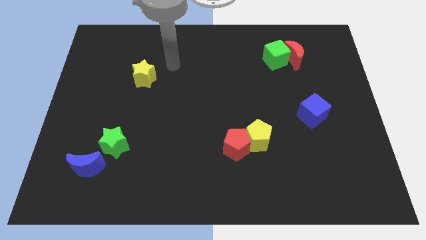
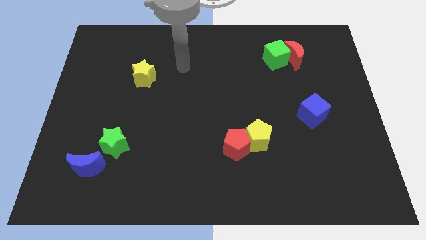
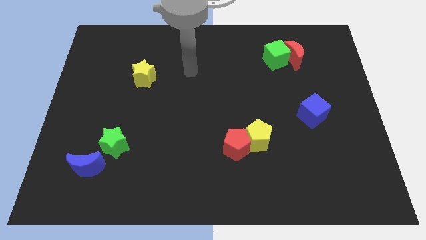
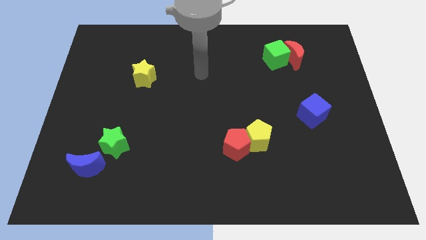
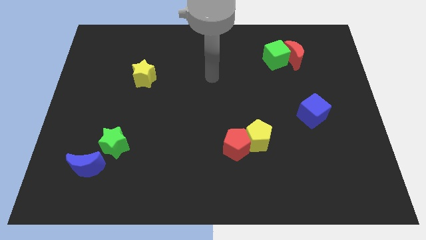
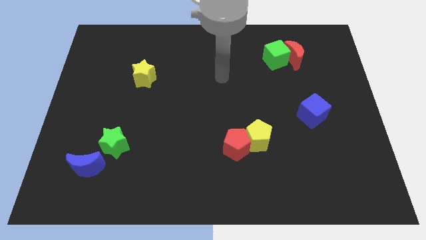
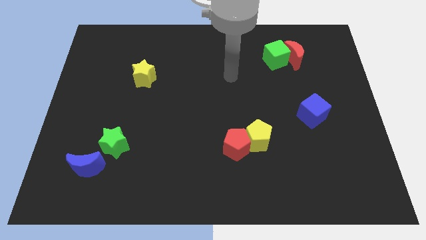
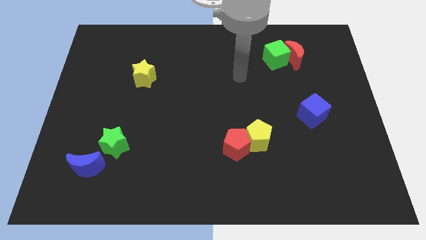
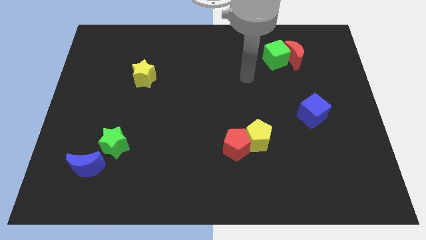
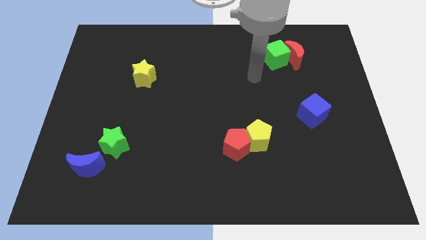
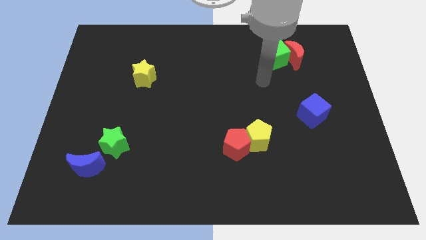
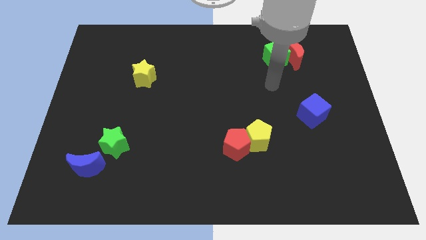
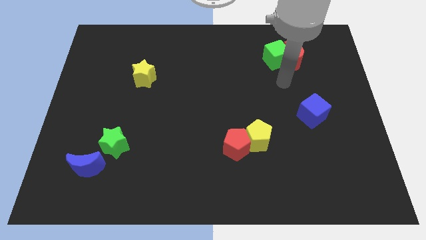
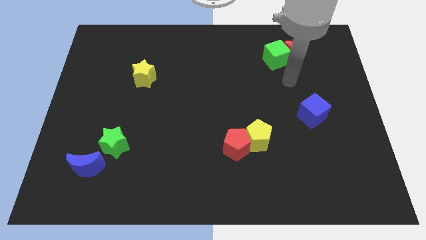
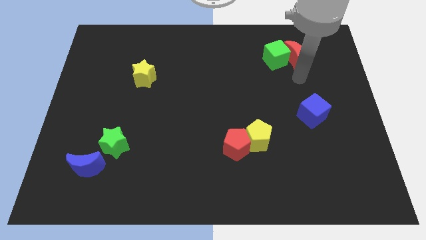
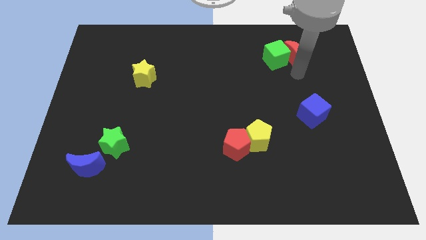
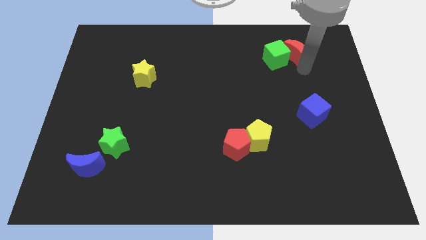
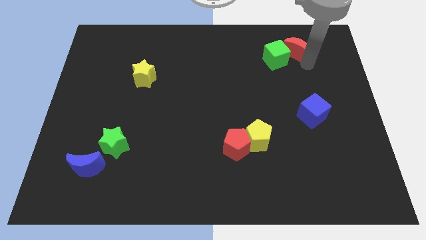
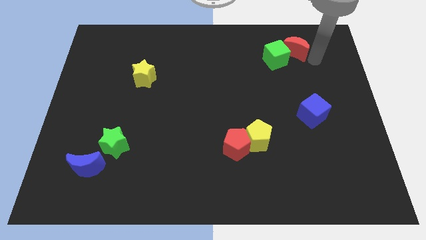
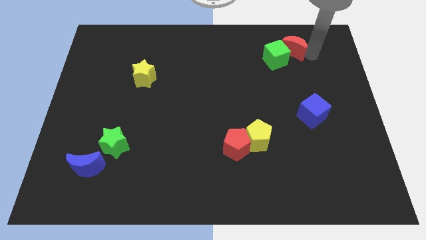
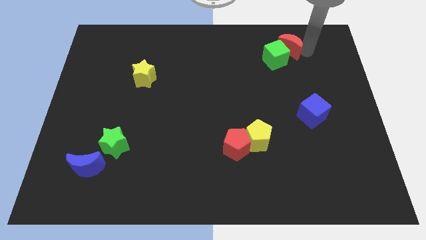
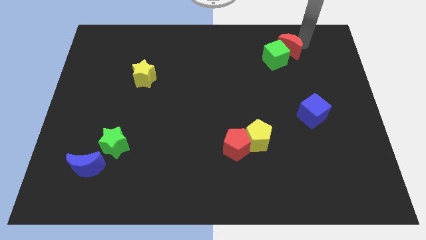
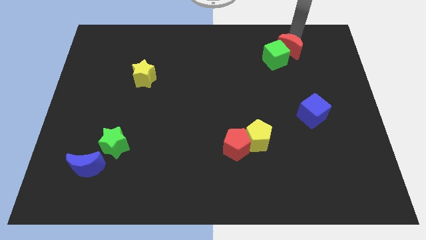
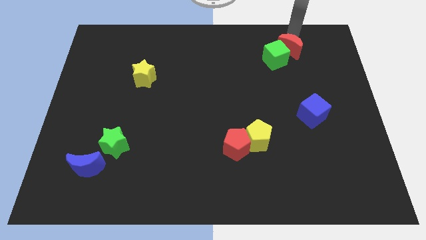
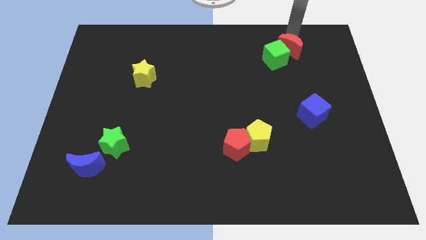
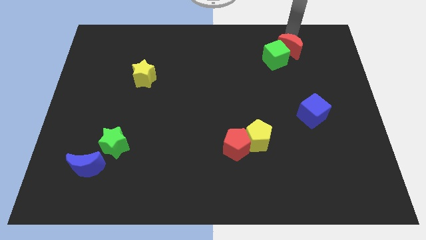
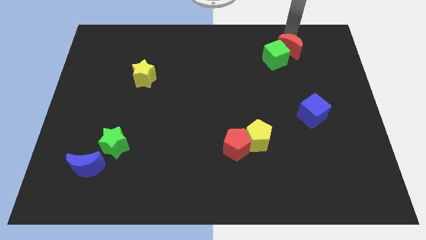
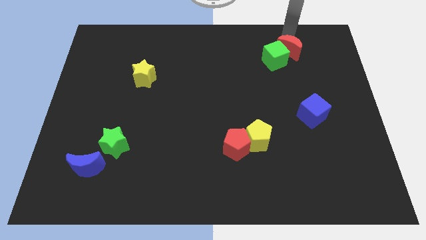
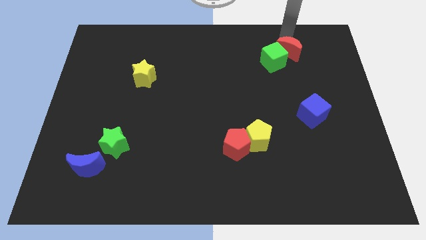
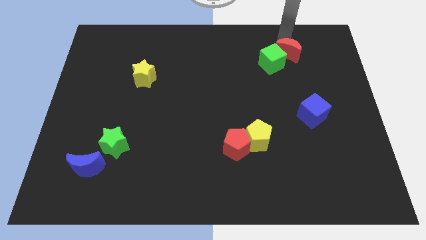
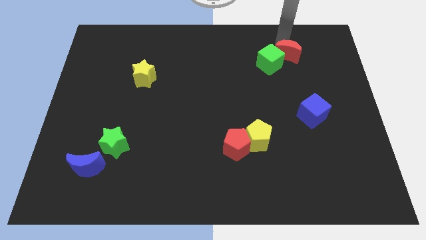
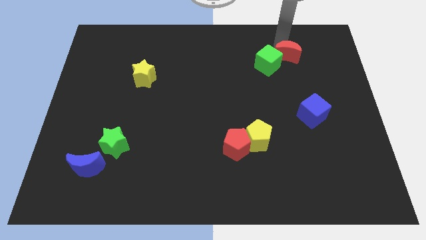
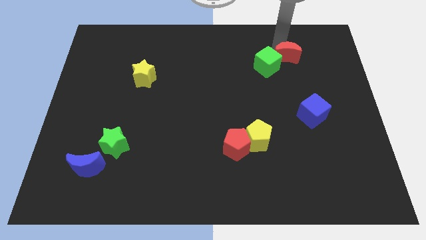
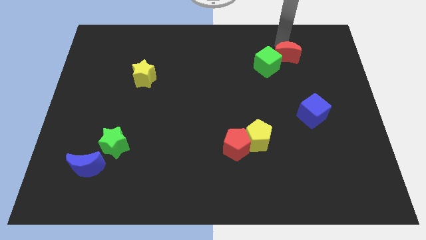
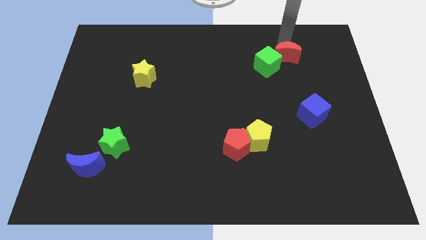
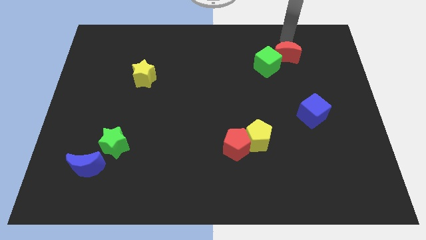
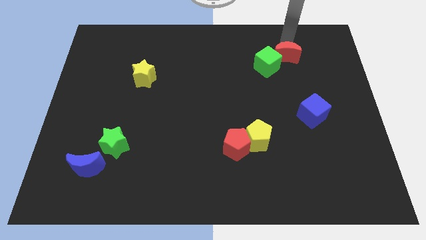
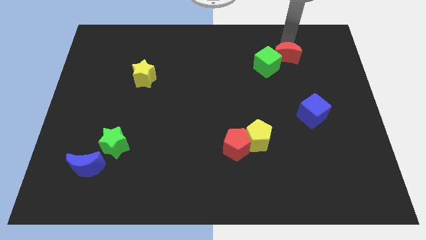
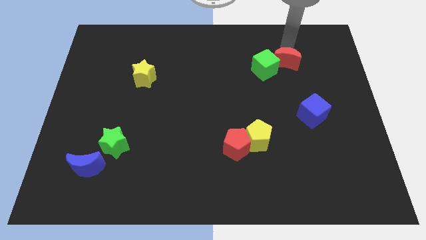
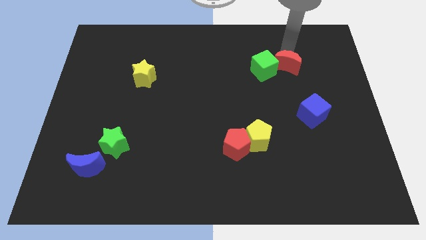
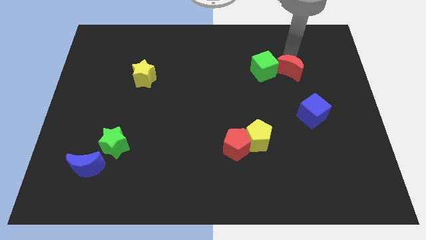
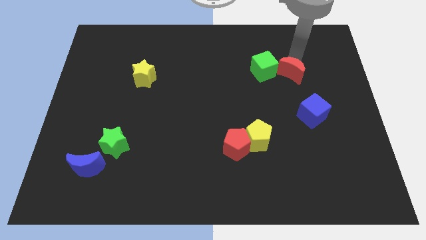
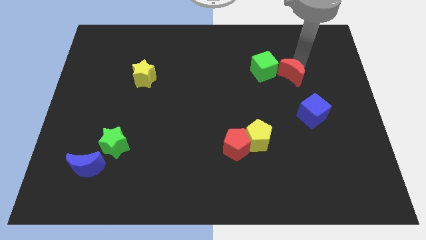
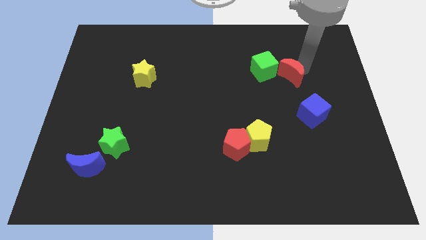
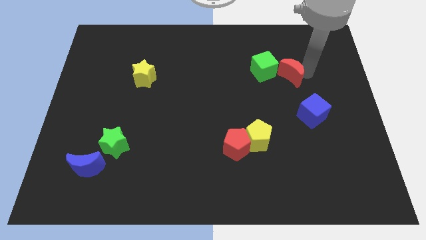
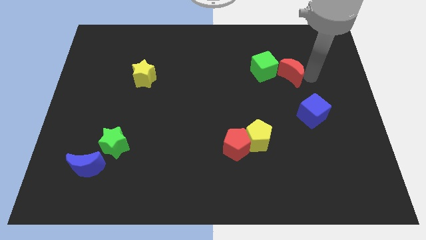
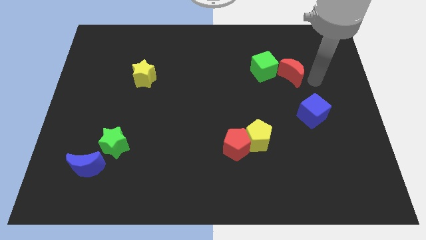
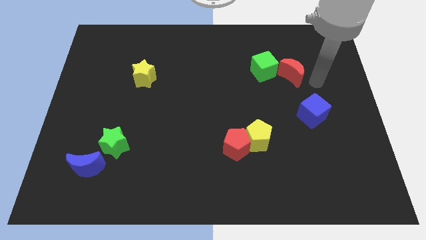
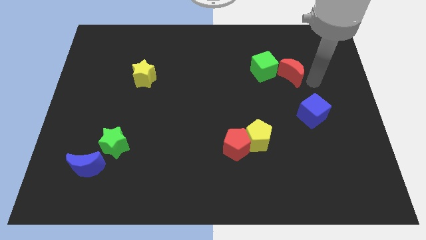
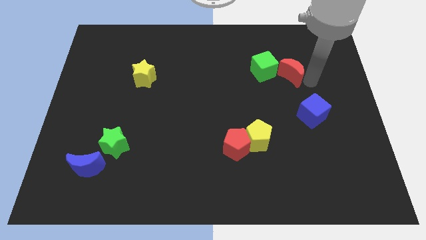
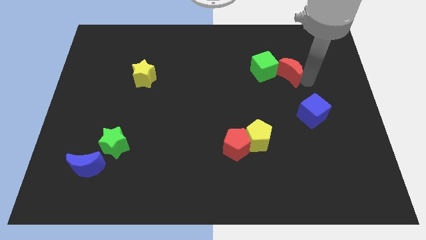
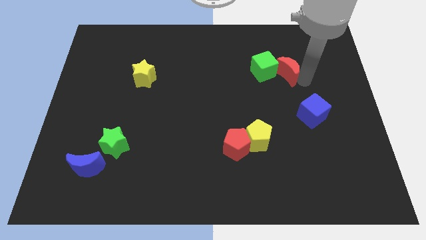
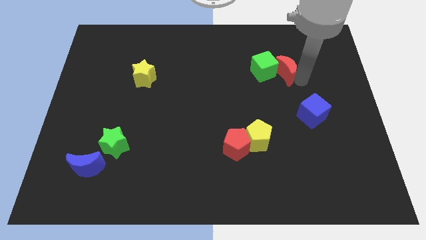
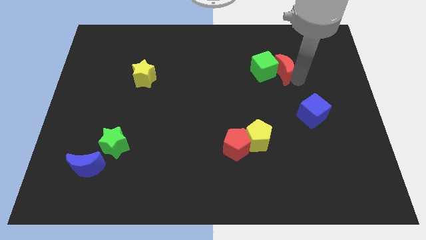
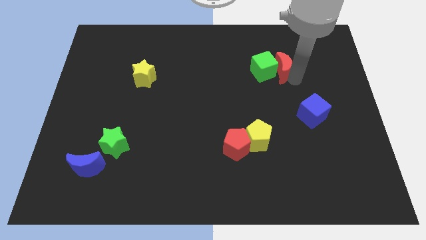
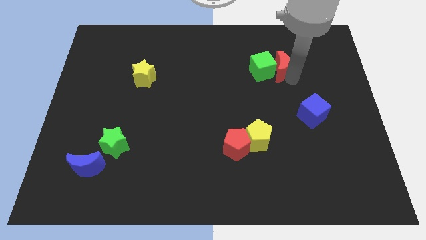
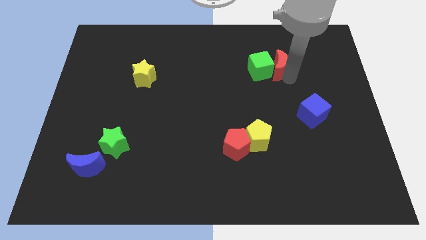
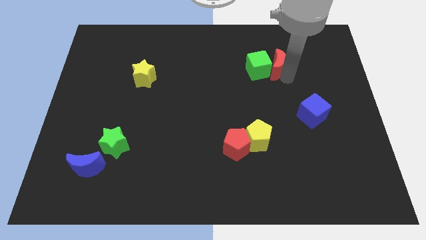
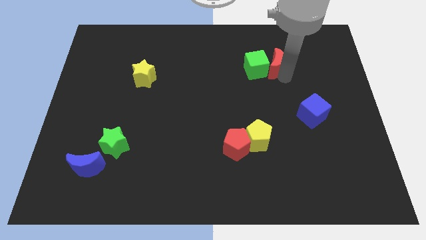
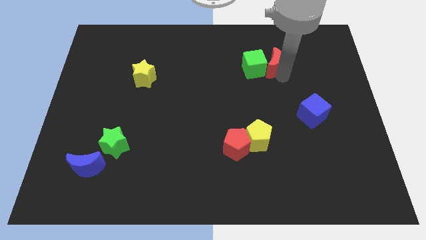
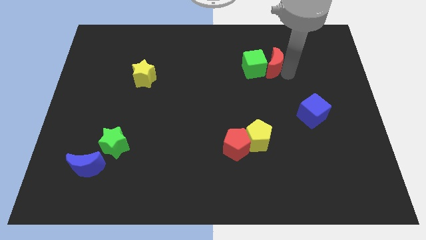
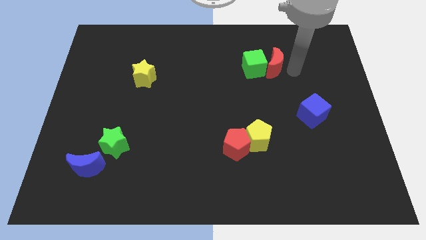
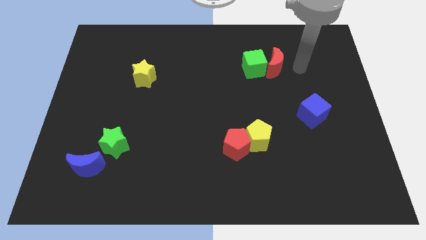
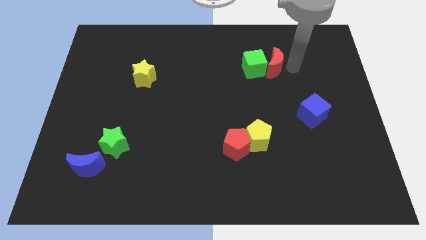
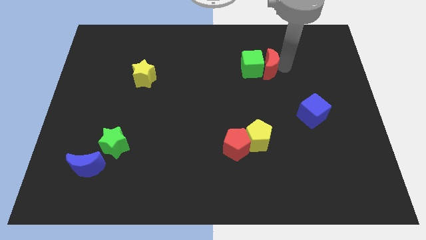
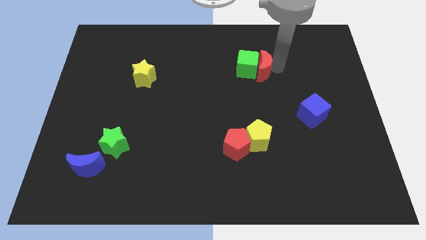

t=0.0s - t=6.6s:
slide the red moon slightly left

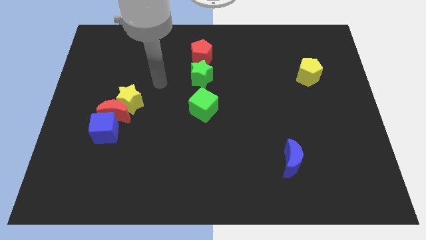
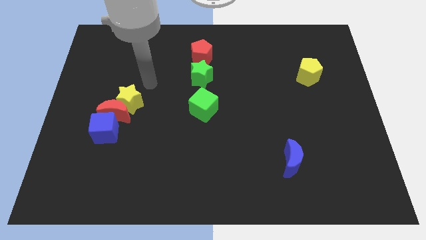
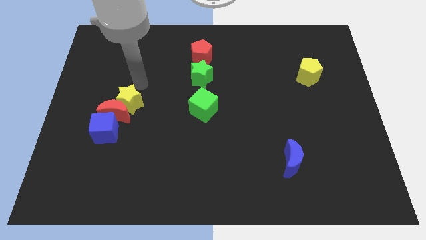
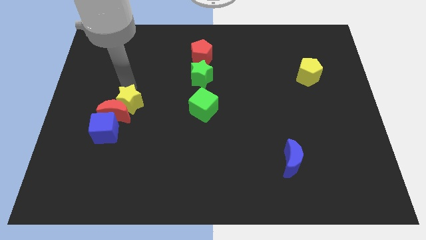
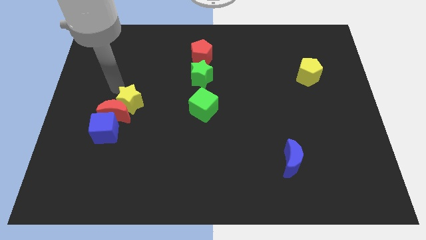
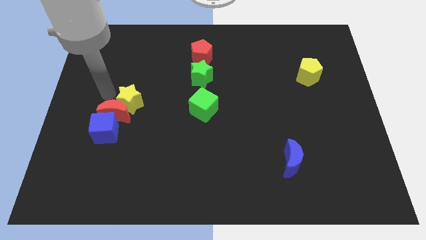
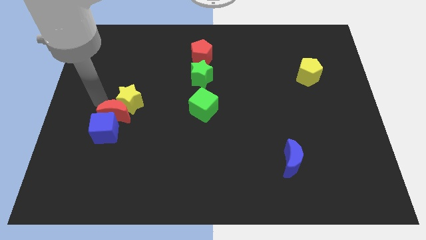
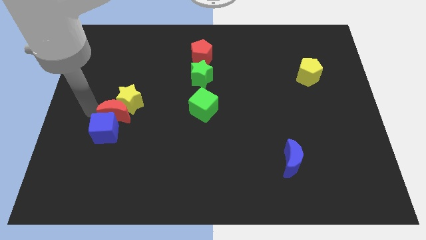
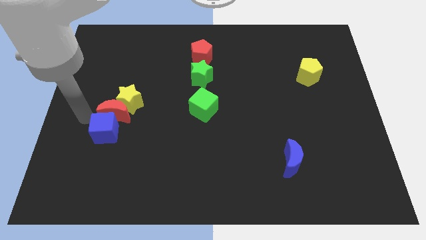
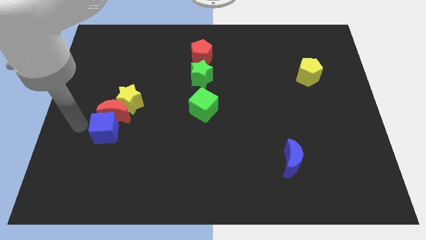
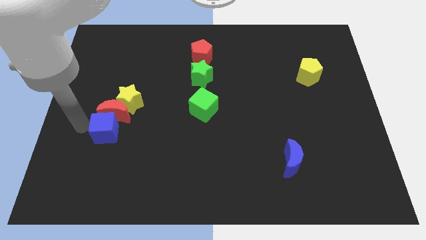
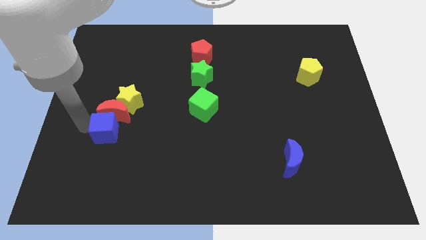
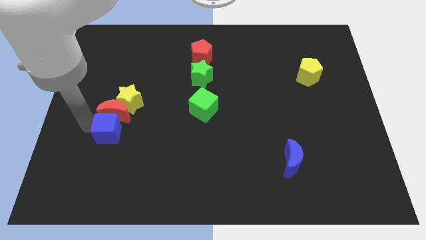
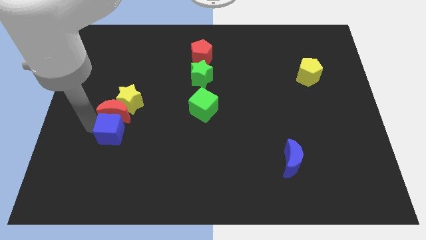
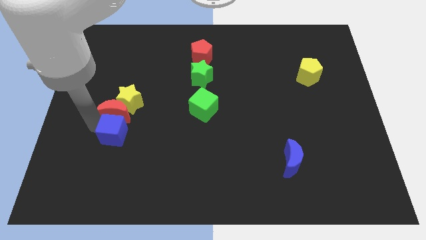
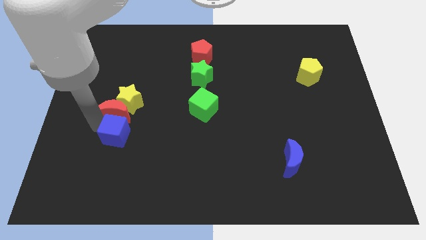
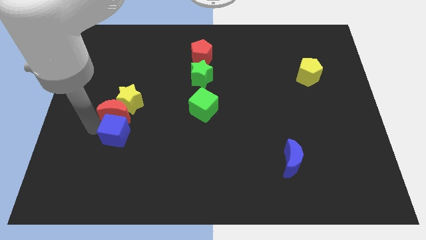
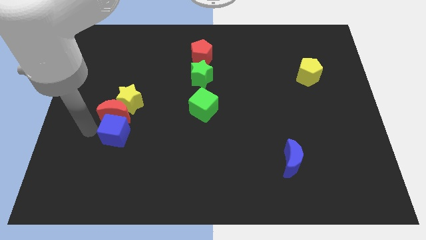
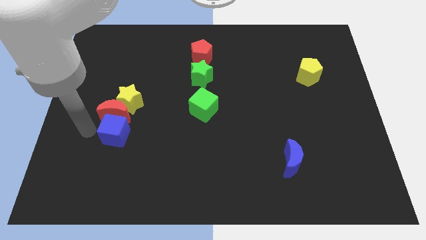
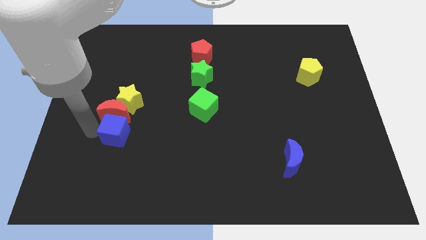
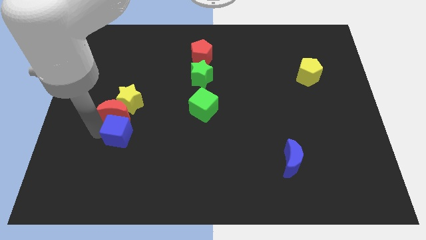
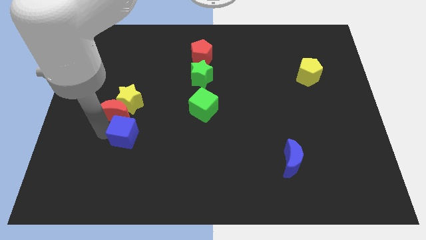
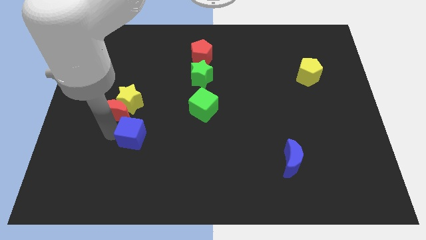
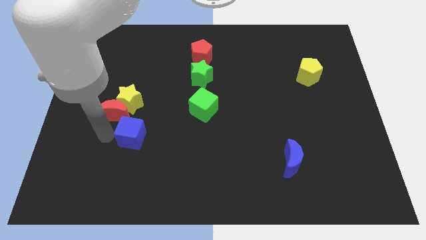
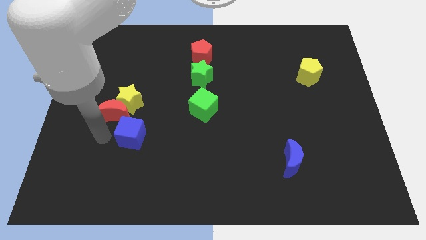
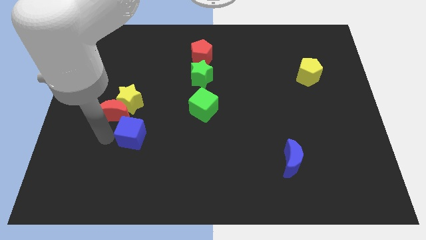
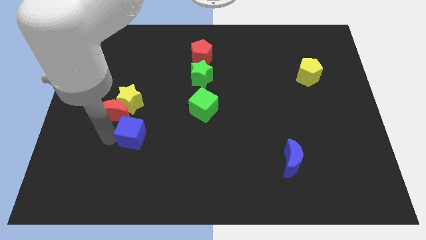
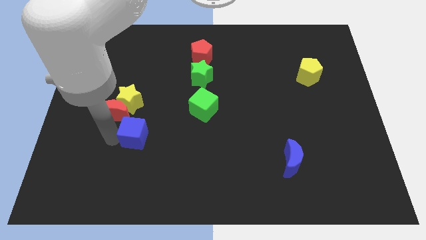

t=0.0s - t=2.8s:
slightly push the blue cube right
